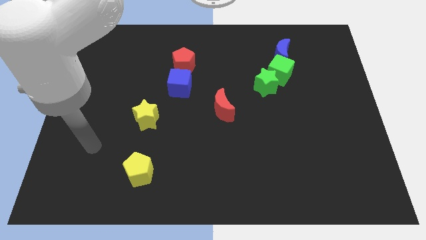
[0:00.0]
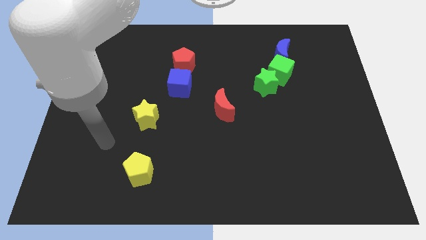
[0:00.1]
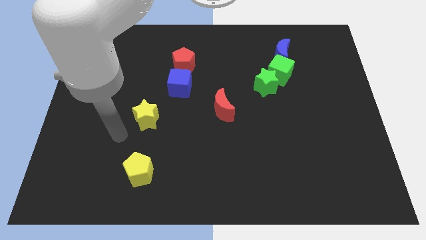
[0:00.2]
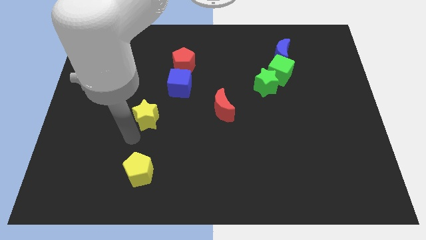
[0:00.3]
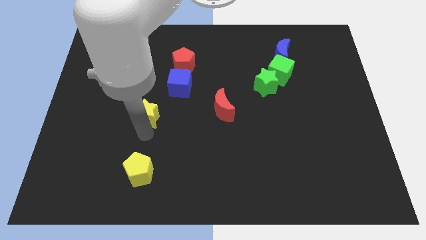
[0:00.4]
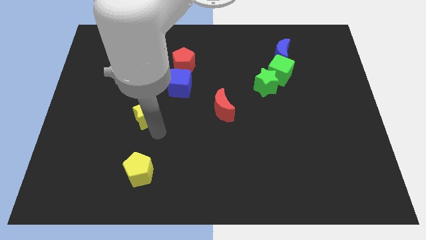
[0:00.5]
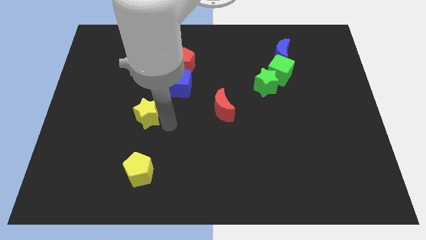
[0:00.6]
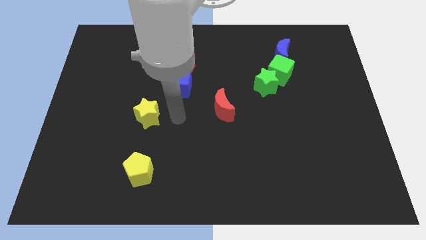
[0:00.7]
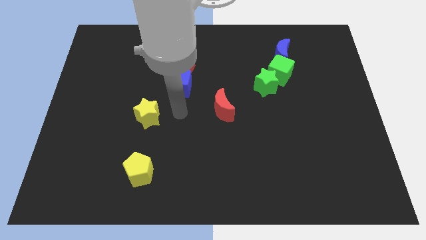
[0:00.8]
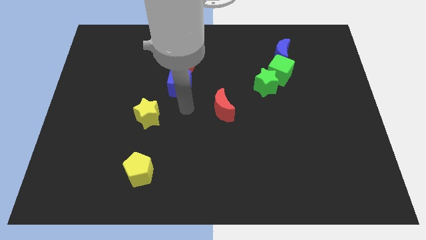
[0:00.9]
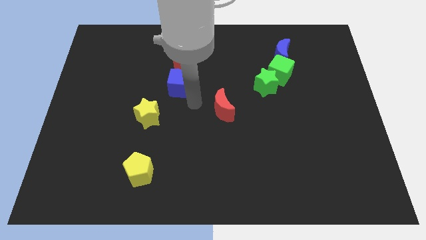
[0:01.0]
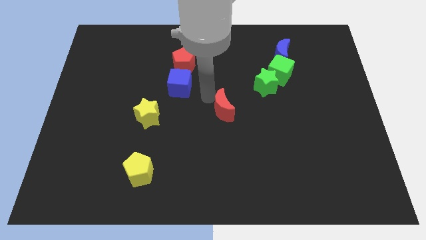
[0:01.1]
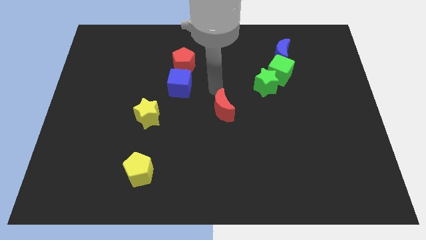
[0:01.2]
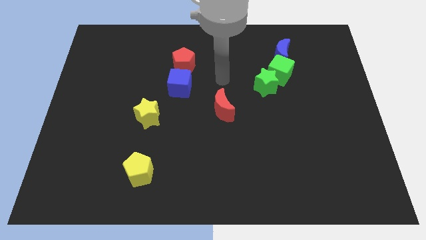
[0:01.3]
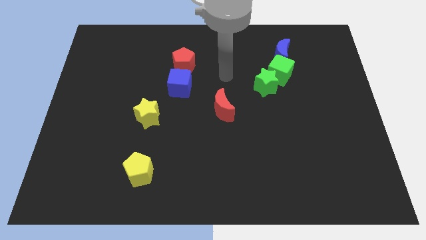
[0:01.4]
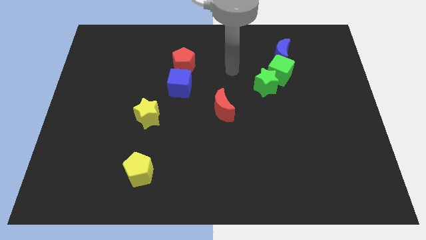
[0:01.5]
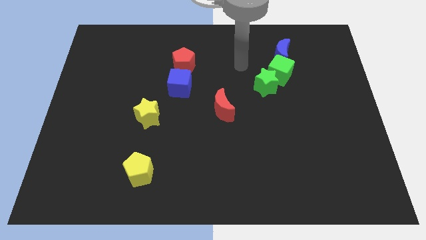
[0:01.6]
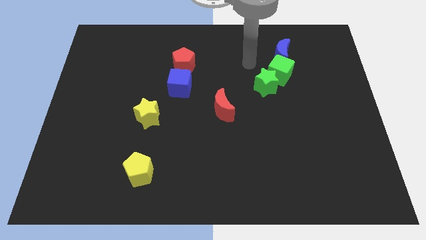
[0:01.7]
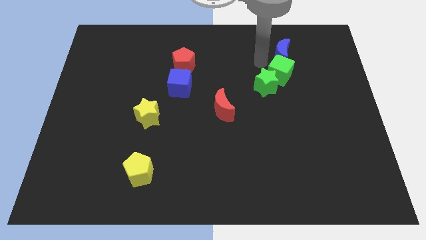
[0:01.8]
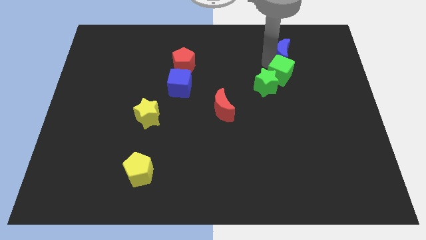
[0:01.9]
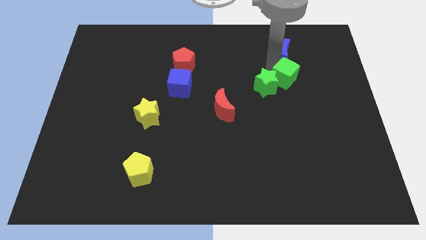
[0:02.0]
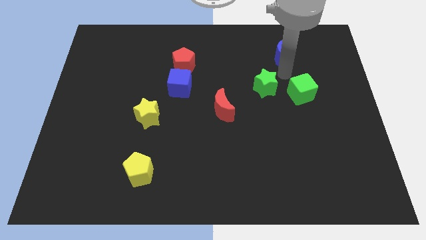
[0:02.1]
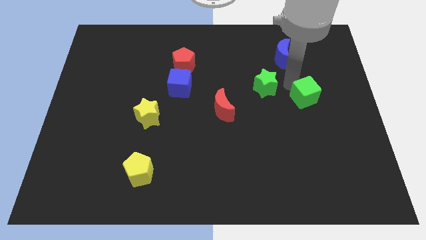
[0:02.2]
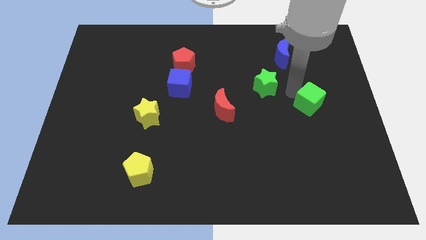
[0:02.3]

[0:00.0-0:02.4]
pull the green star apart from the green cube

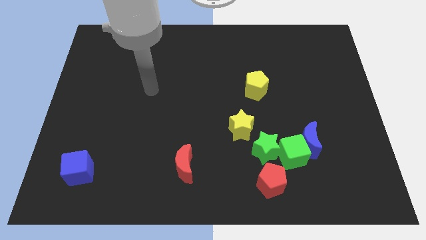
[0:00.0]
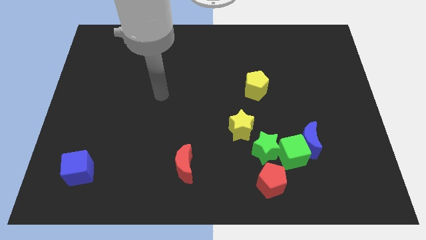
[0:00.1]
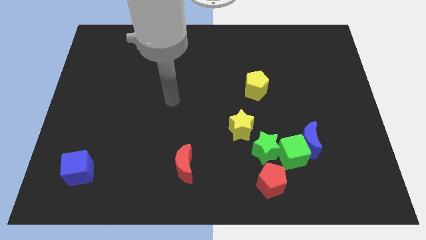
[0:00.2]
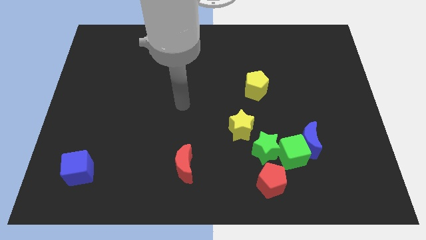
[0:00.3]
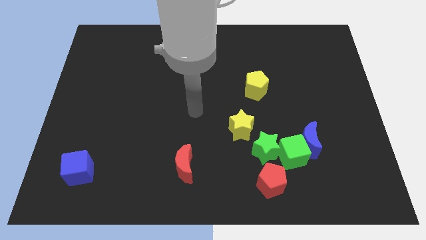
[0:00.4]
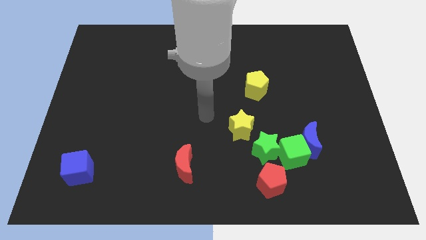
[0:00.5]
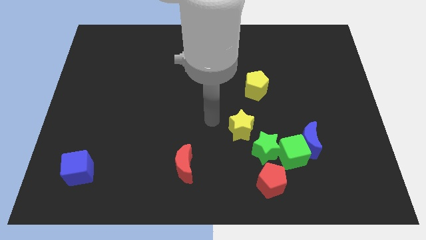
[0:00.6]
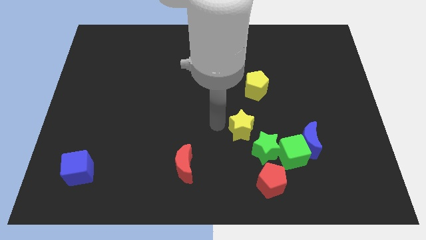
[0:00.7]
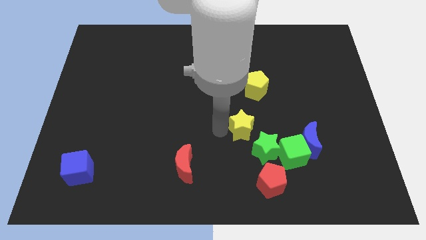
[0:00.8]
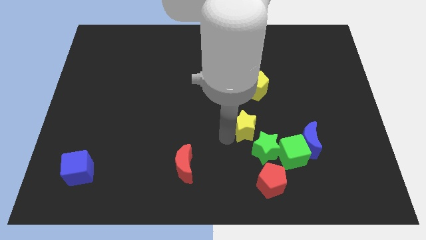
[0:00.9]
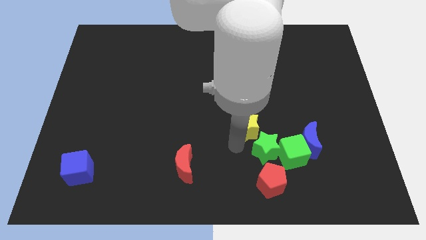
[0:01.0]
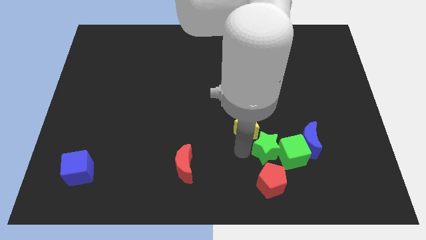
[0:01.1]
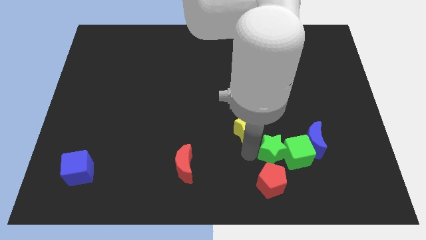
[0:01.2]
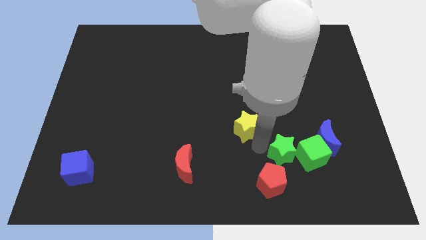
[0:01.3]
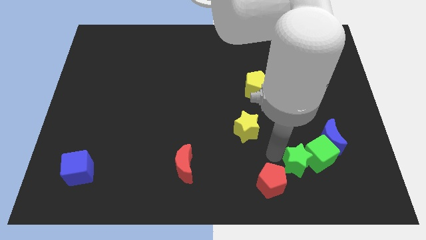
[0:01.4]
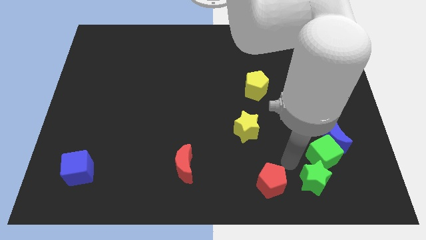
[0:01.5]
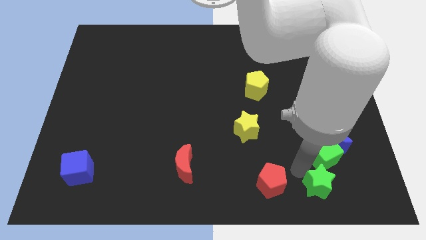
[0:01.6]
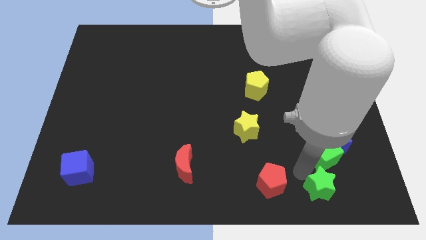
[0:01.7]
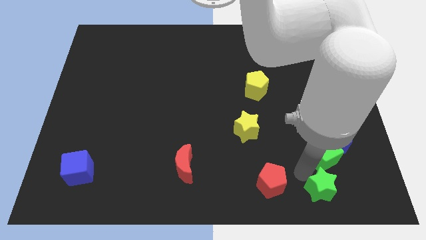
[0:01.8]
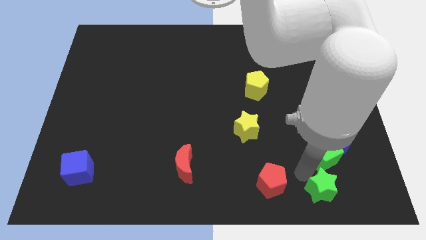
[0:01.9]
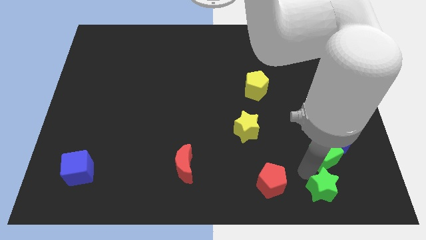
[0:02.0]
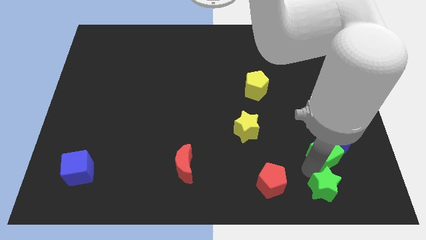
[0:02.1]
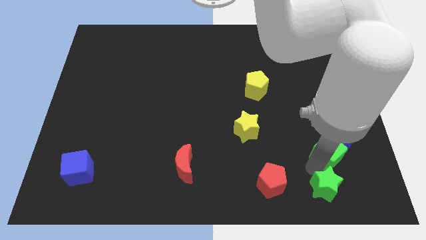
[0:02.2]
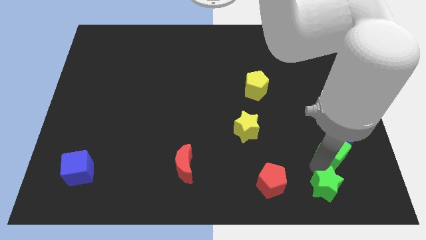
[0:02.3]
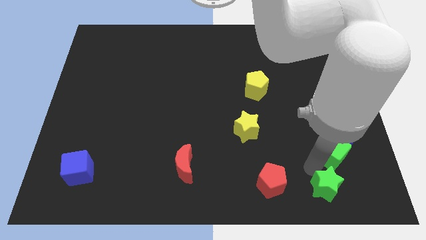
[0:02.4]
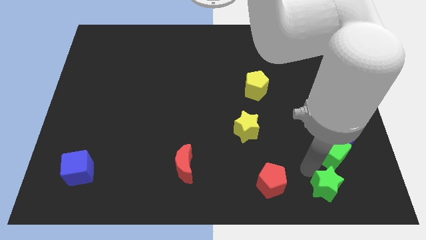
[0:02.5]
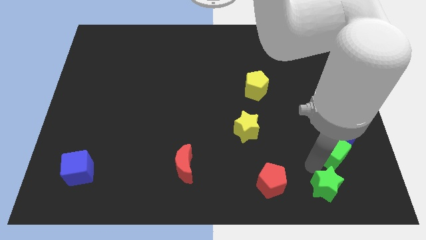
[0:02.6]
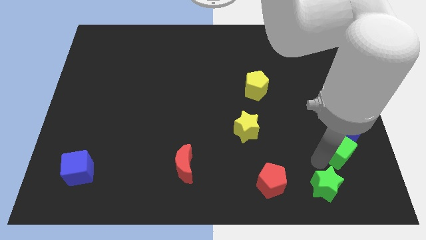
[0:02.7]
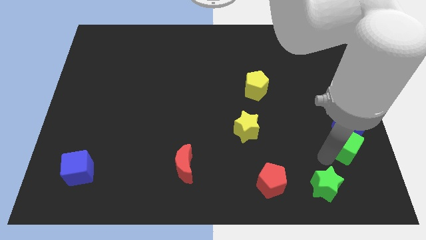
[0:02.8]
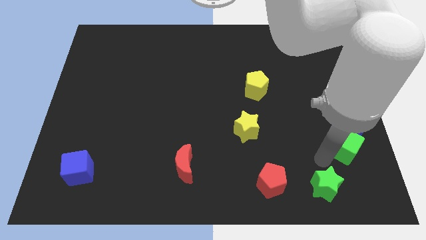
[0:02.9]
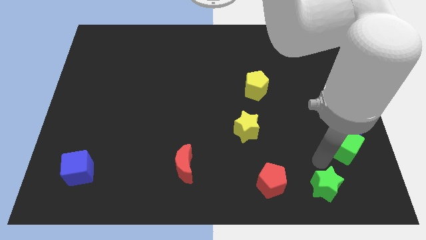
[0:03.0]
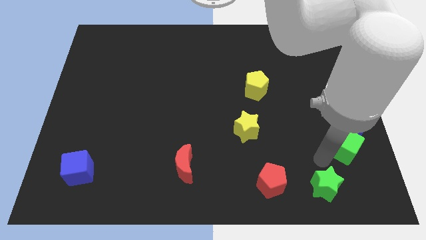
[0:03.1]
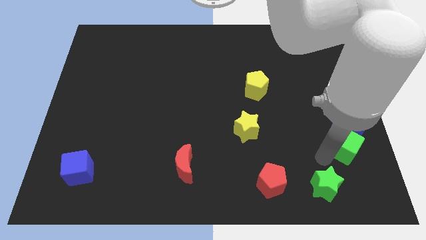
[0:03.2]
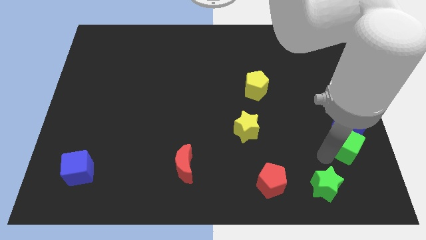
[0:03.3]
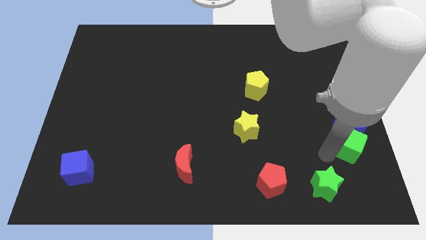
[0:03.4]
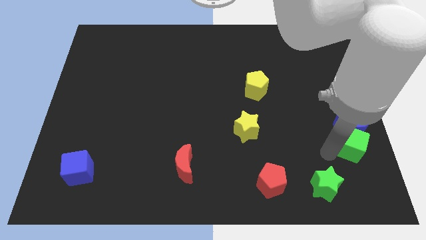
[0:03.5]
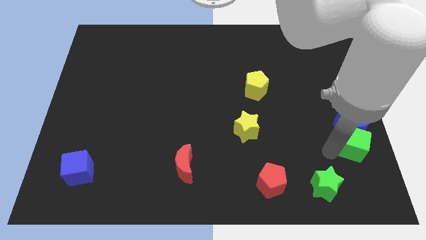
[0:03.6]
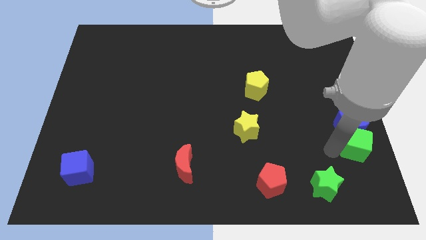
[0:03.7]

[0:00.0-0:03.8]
move the green cube away from the blue moon, green star, and red pentagon

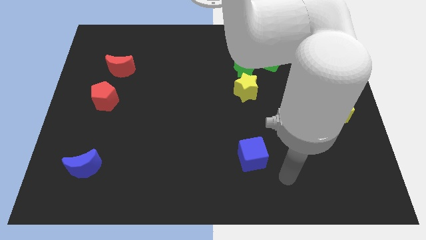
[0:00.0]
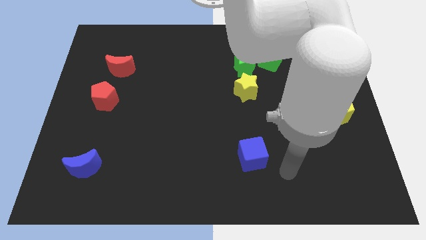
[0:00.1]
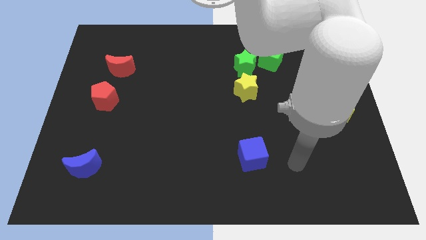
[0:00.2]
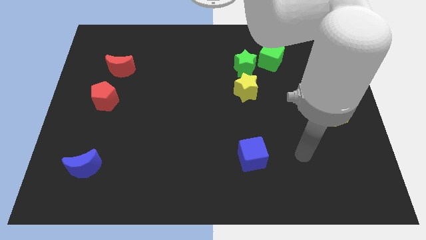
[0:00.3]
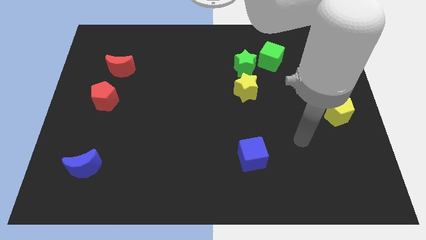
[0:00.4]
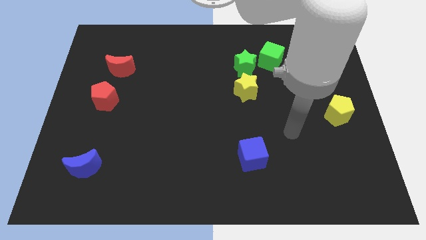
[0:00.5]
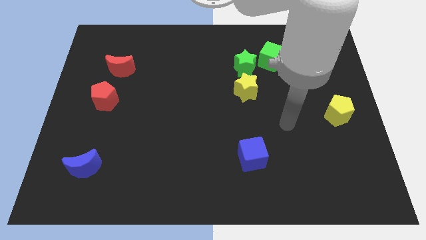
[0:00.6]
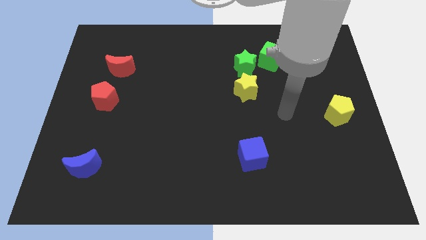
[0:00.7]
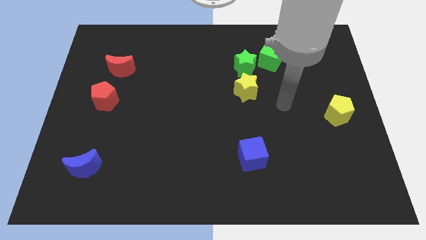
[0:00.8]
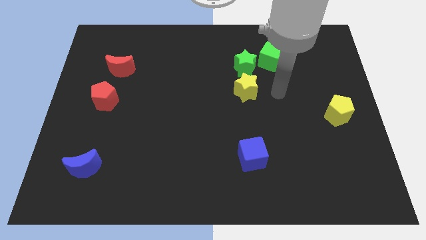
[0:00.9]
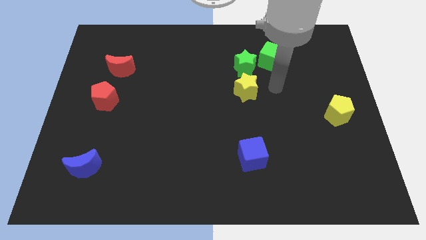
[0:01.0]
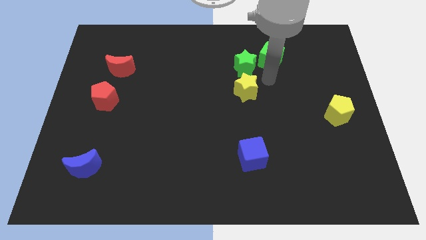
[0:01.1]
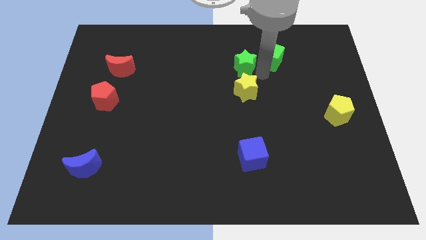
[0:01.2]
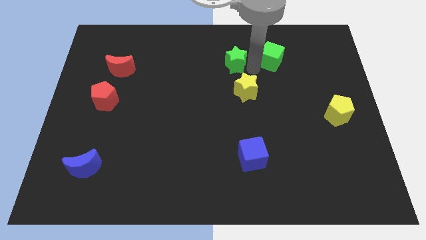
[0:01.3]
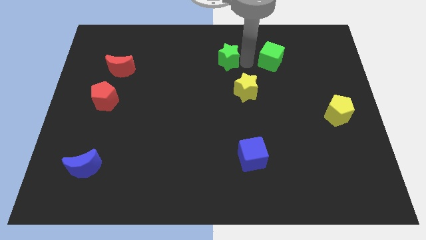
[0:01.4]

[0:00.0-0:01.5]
separate the green cube from the green star

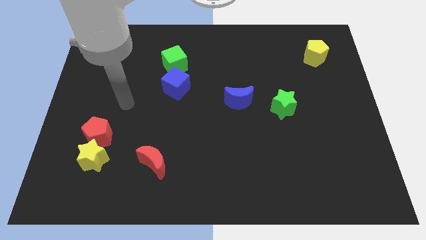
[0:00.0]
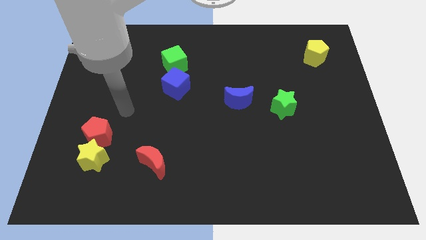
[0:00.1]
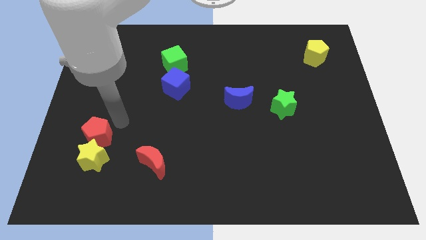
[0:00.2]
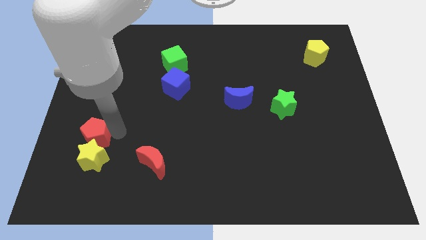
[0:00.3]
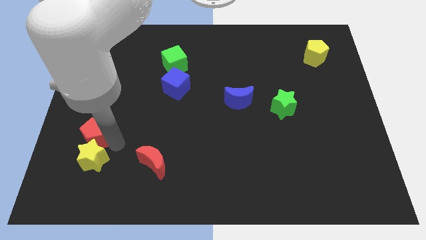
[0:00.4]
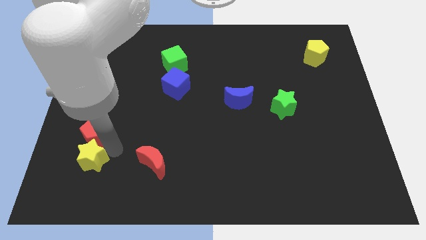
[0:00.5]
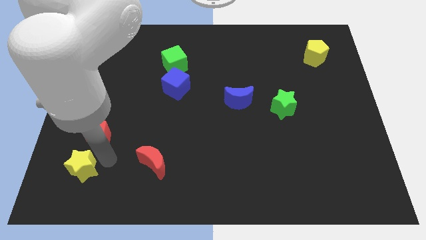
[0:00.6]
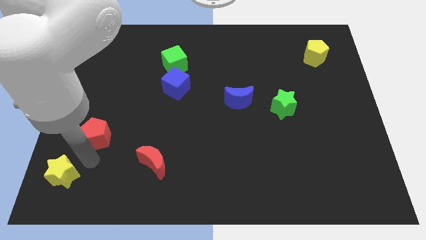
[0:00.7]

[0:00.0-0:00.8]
pull the red pentagon apart from the yellow star

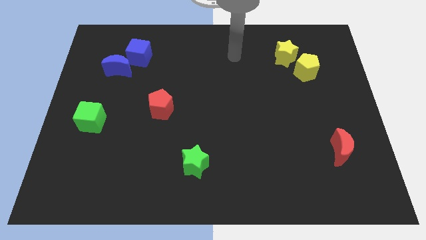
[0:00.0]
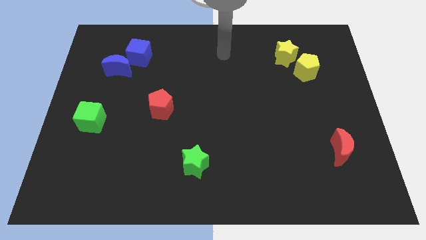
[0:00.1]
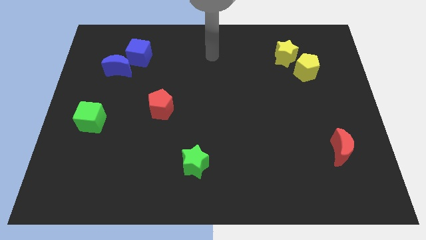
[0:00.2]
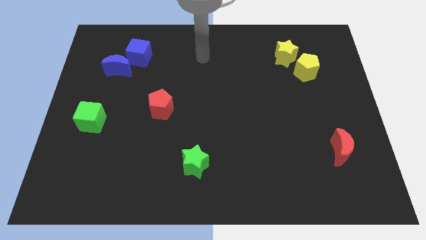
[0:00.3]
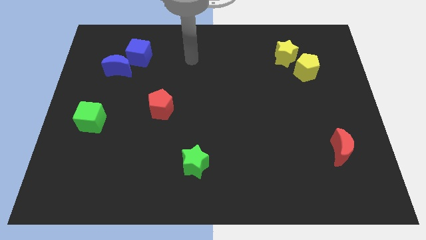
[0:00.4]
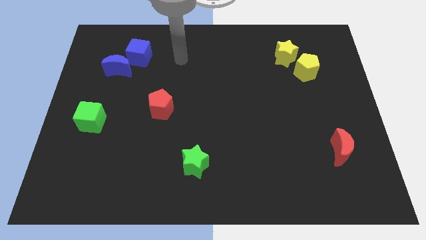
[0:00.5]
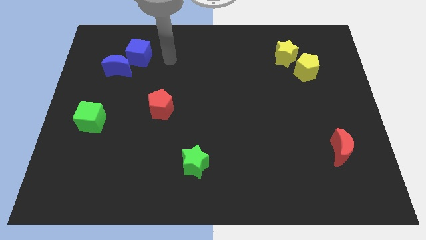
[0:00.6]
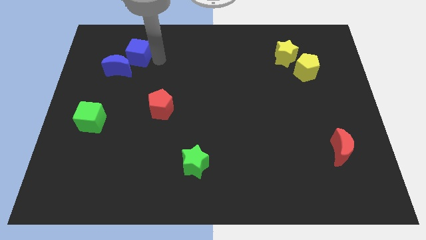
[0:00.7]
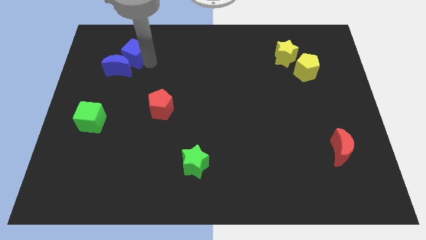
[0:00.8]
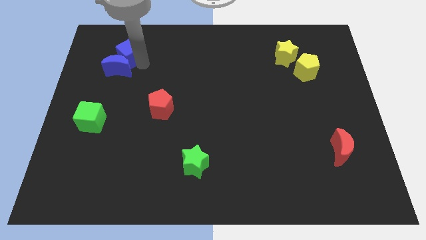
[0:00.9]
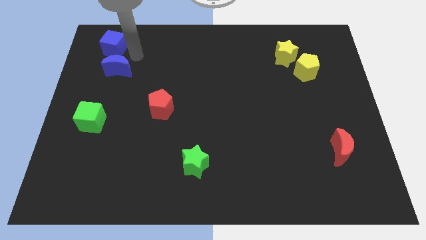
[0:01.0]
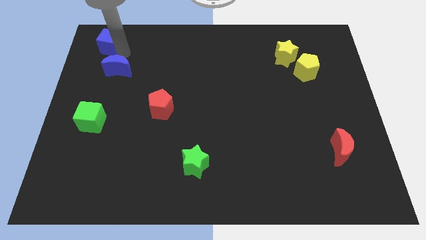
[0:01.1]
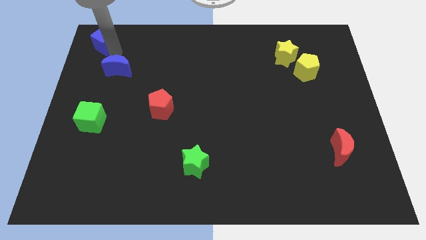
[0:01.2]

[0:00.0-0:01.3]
pull the blue moon apart from the blue cube
